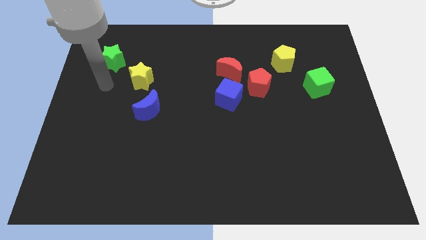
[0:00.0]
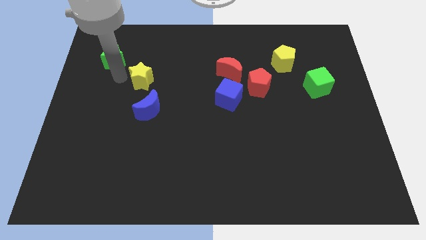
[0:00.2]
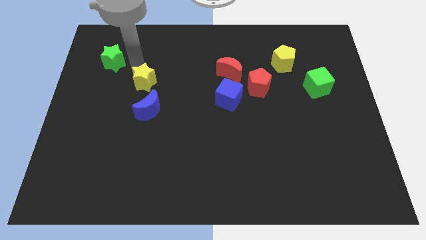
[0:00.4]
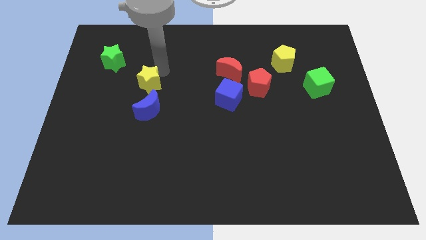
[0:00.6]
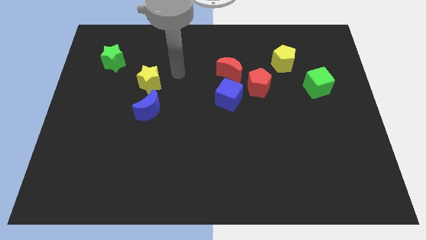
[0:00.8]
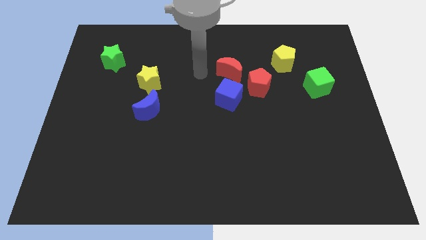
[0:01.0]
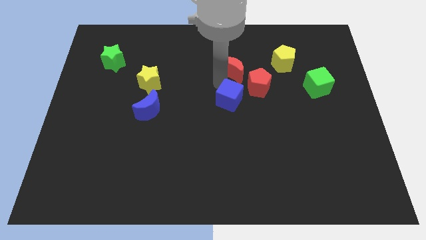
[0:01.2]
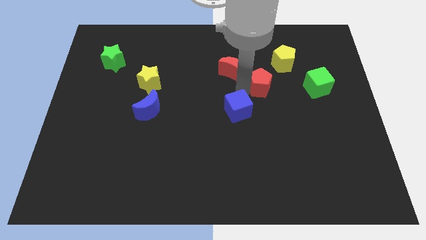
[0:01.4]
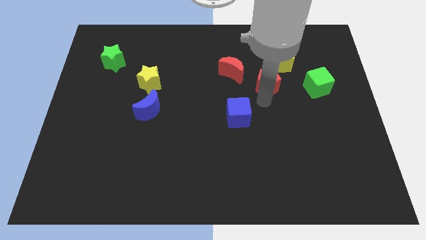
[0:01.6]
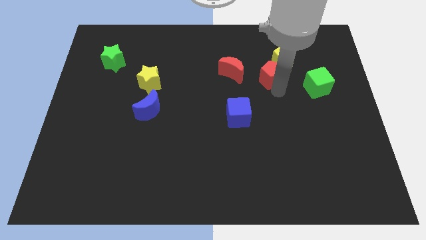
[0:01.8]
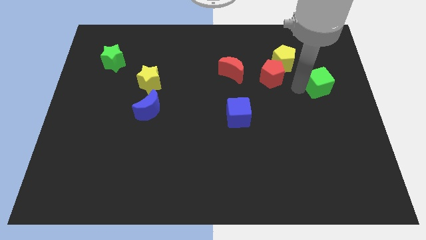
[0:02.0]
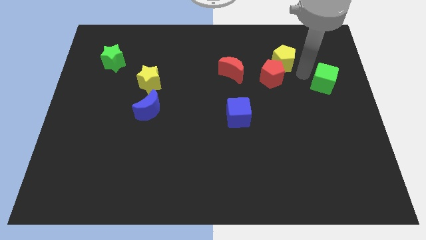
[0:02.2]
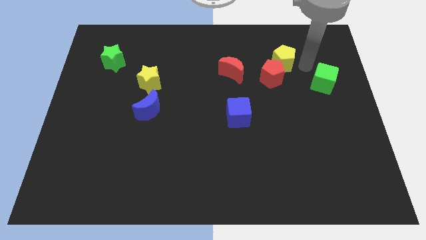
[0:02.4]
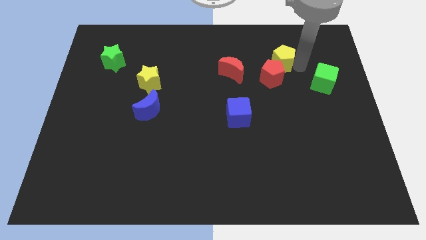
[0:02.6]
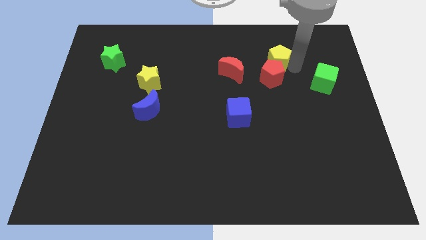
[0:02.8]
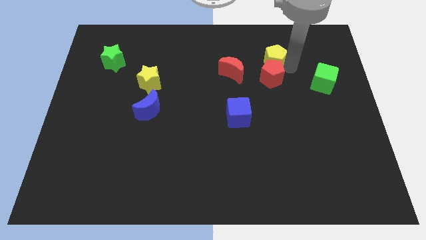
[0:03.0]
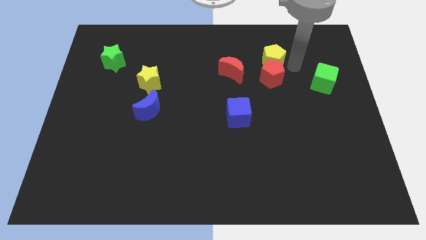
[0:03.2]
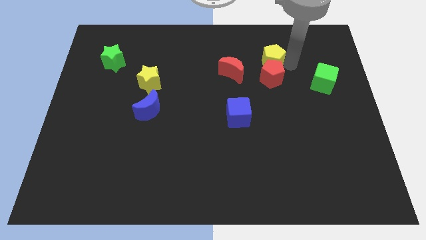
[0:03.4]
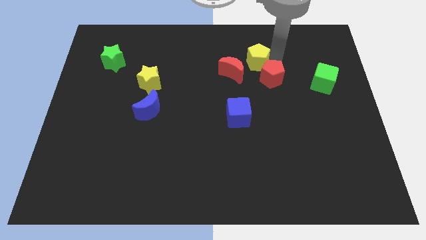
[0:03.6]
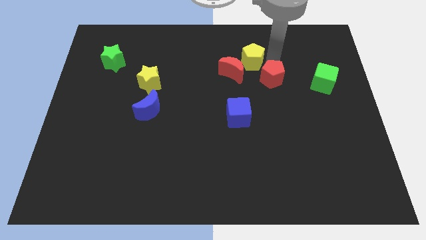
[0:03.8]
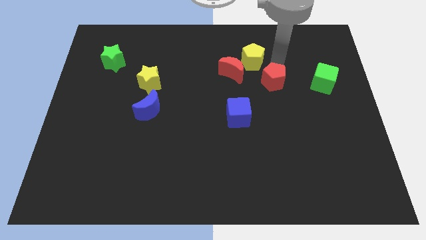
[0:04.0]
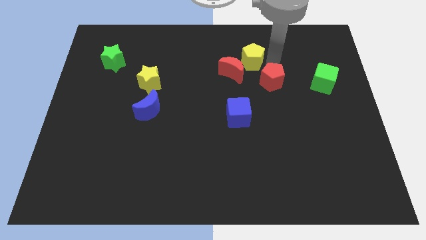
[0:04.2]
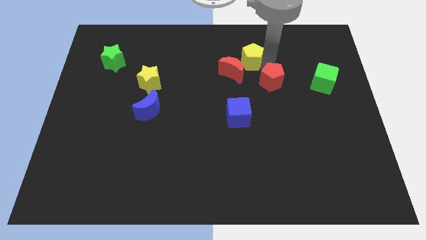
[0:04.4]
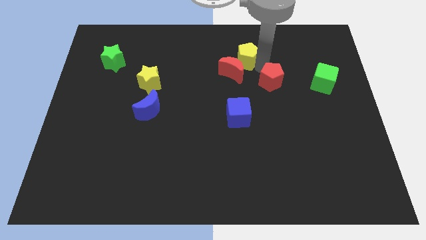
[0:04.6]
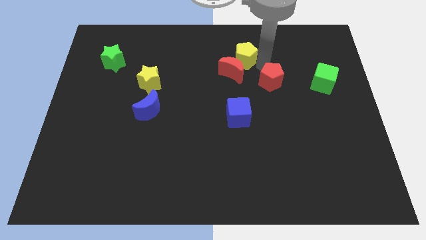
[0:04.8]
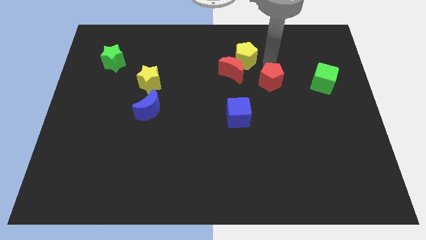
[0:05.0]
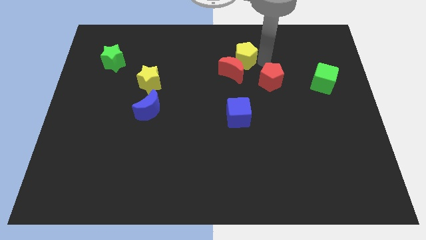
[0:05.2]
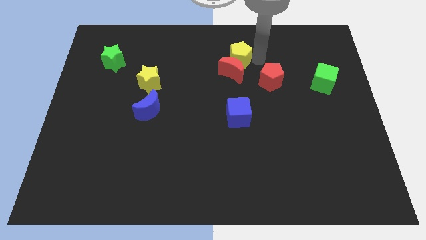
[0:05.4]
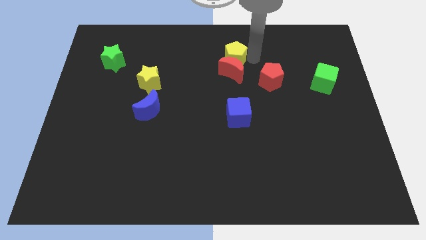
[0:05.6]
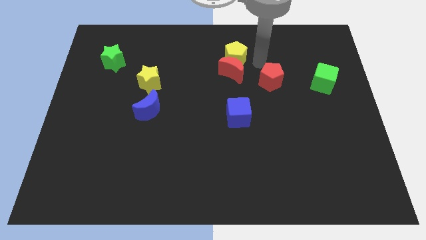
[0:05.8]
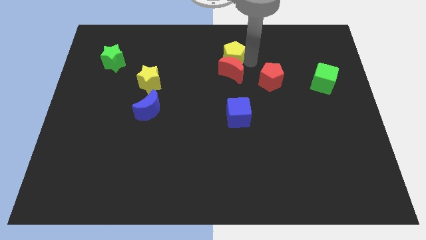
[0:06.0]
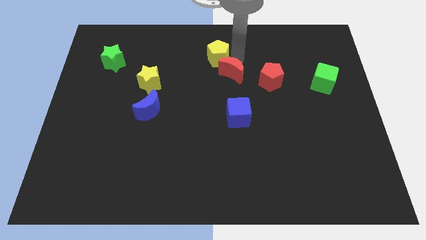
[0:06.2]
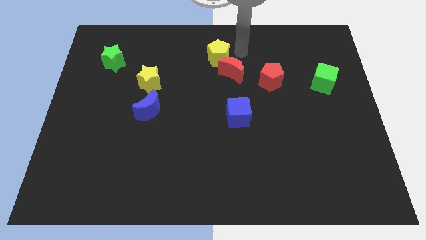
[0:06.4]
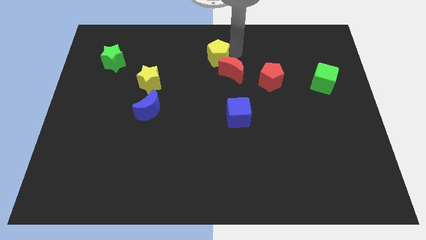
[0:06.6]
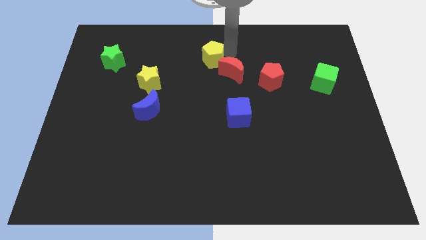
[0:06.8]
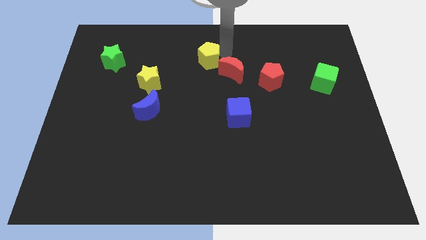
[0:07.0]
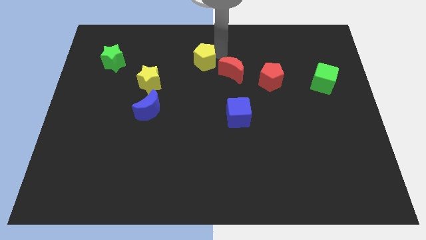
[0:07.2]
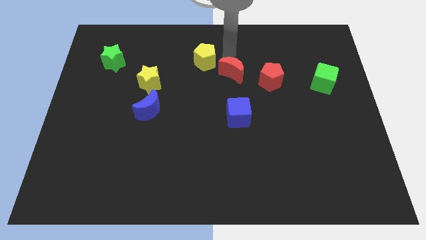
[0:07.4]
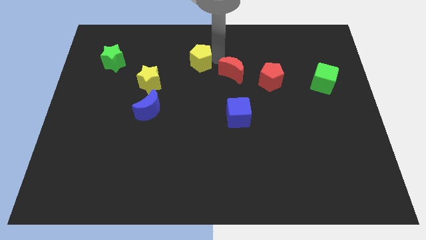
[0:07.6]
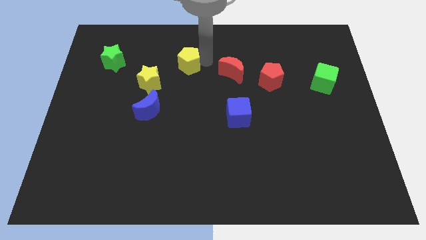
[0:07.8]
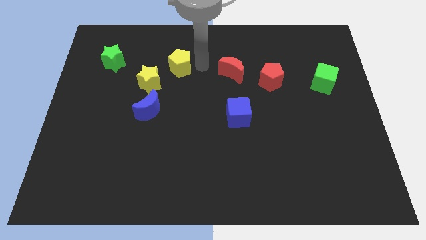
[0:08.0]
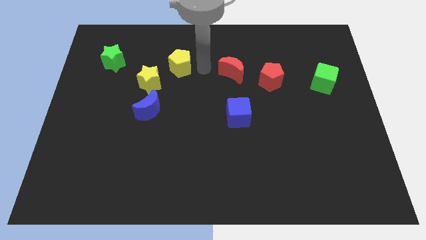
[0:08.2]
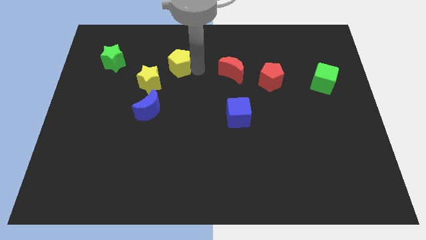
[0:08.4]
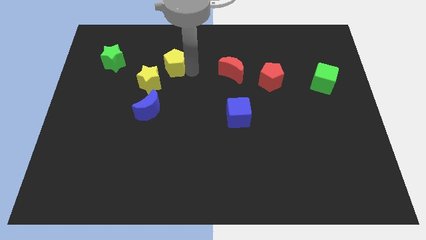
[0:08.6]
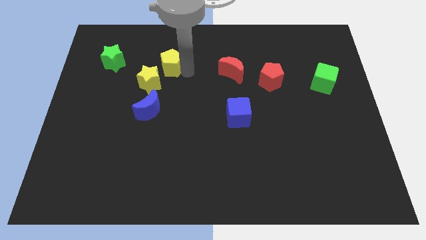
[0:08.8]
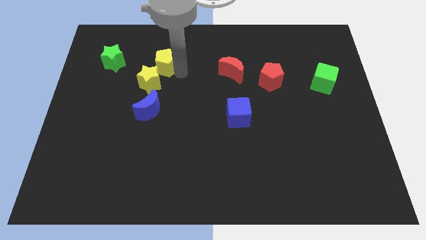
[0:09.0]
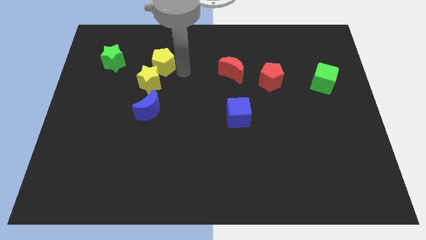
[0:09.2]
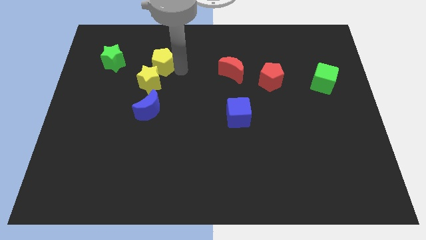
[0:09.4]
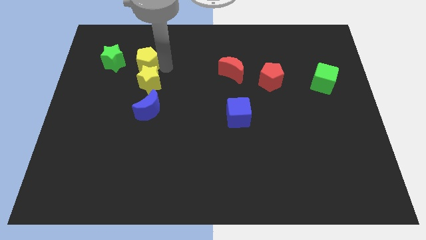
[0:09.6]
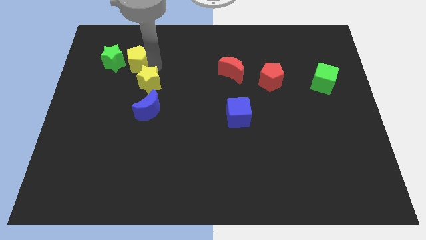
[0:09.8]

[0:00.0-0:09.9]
move the yellow pentagon close to the green star

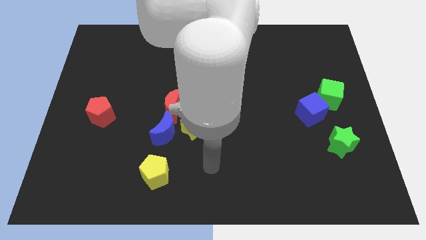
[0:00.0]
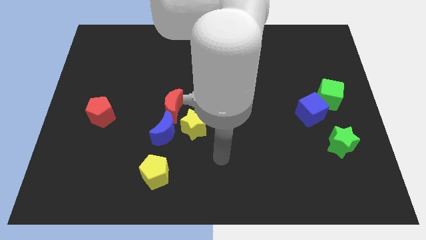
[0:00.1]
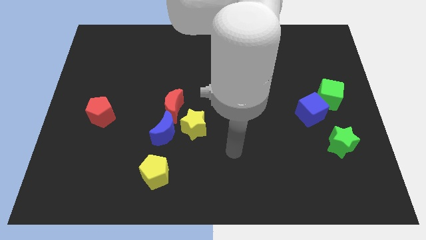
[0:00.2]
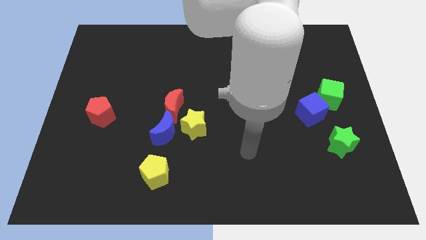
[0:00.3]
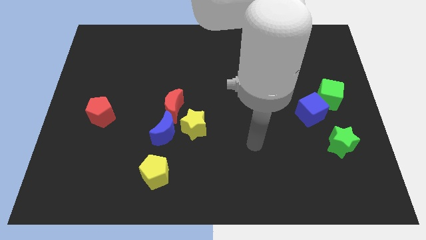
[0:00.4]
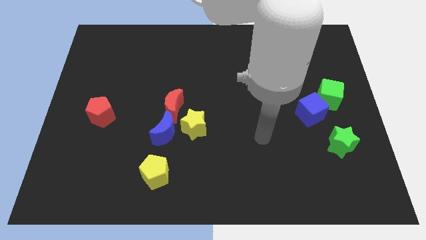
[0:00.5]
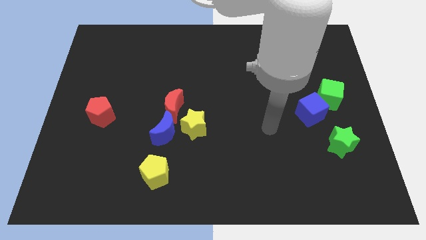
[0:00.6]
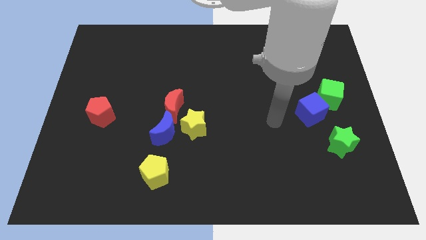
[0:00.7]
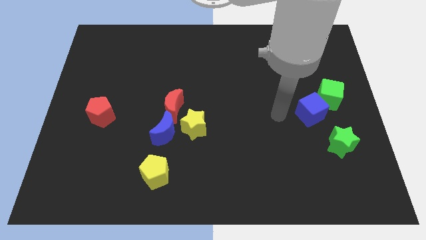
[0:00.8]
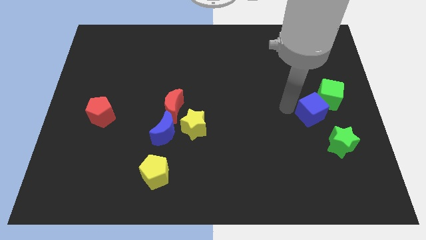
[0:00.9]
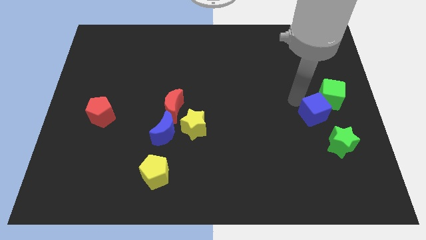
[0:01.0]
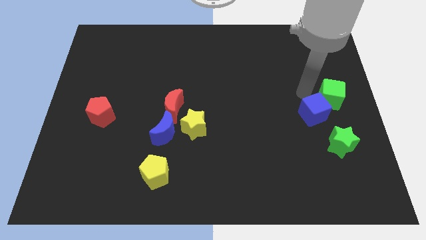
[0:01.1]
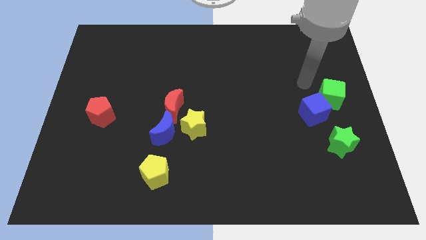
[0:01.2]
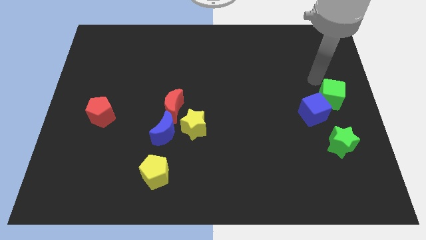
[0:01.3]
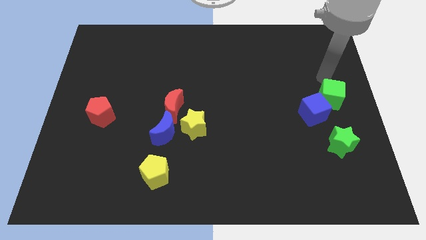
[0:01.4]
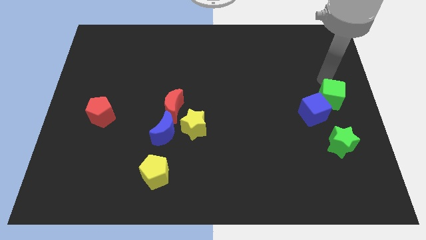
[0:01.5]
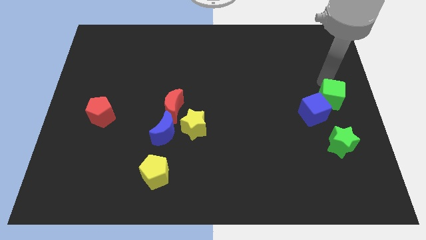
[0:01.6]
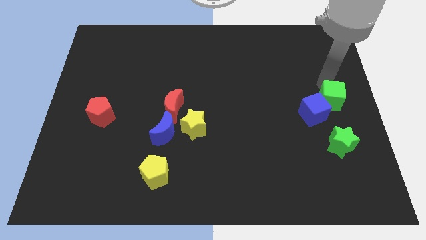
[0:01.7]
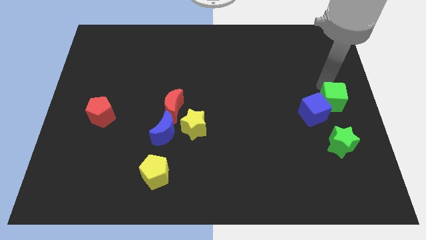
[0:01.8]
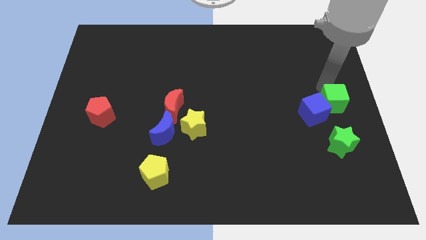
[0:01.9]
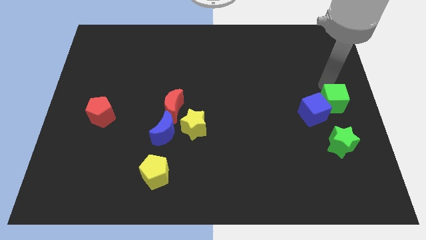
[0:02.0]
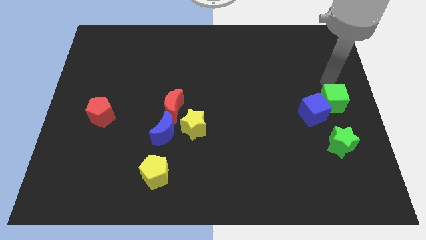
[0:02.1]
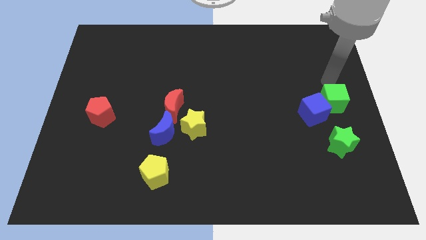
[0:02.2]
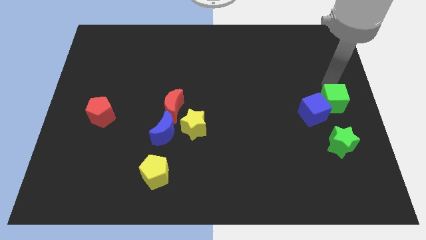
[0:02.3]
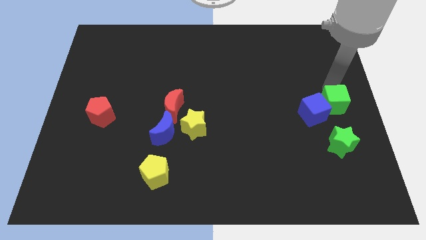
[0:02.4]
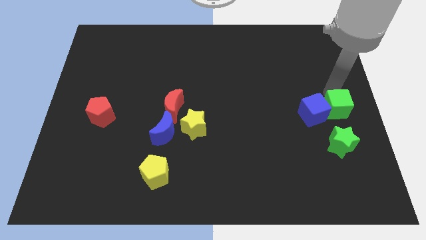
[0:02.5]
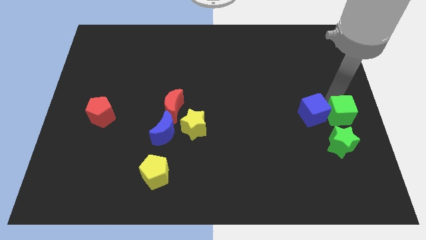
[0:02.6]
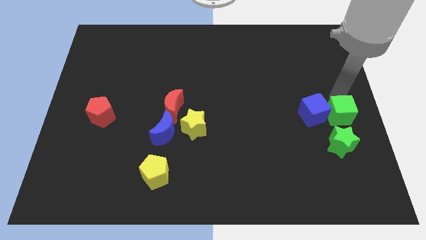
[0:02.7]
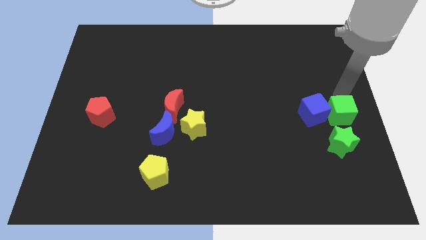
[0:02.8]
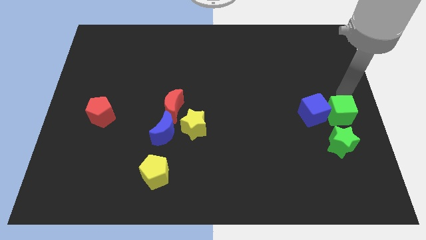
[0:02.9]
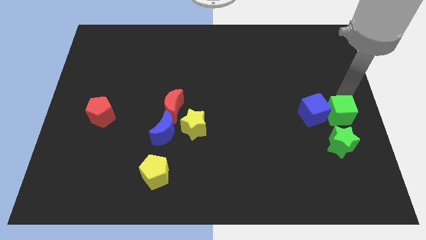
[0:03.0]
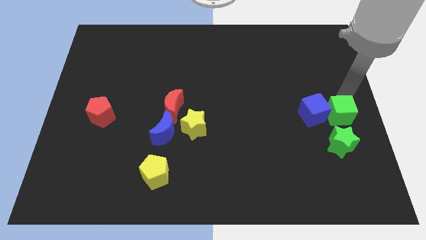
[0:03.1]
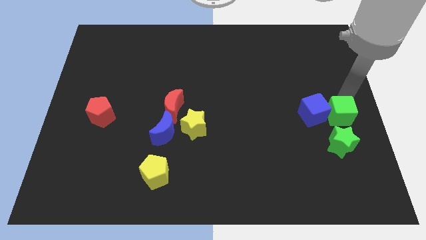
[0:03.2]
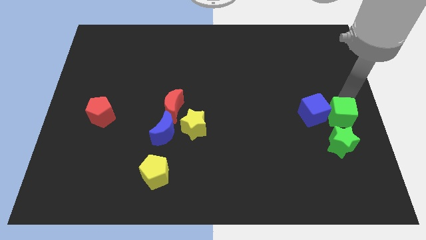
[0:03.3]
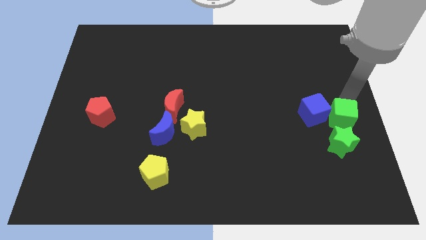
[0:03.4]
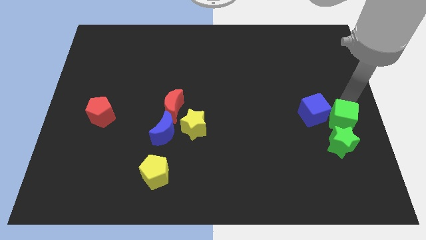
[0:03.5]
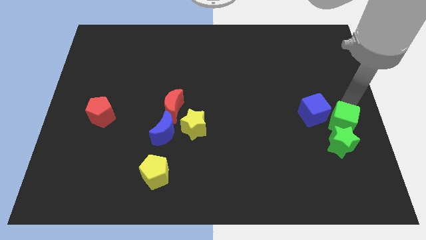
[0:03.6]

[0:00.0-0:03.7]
put the green cube towards the green star
